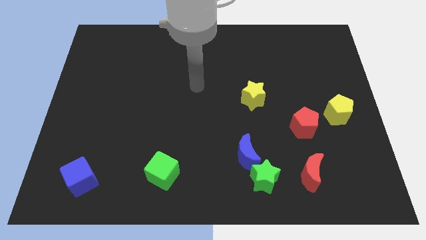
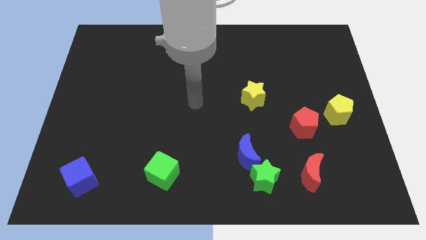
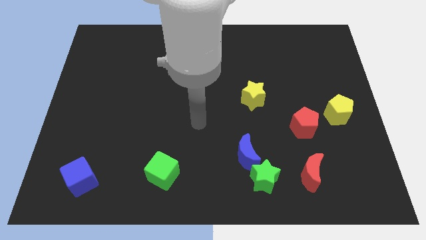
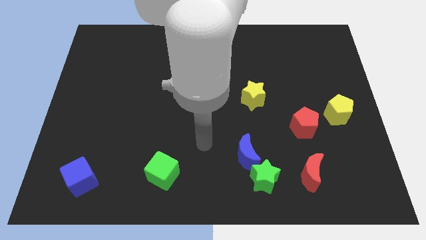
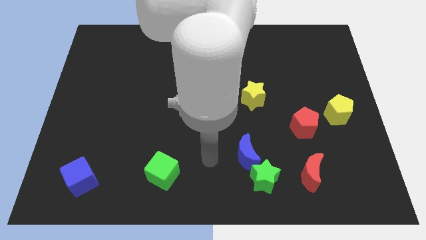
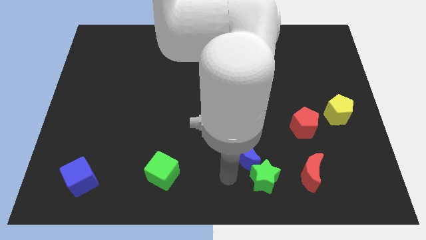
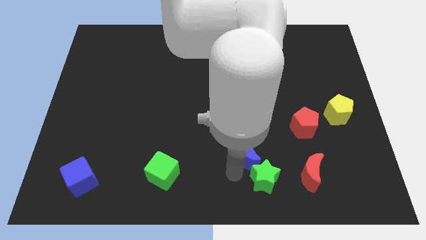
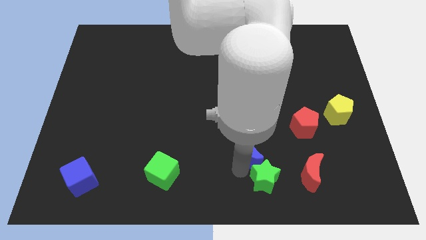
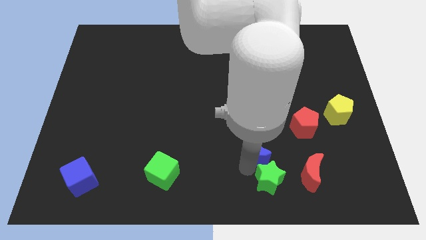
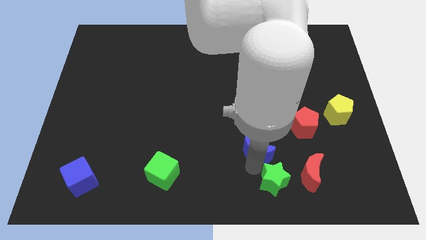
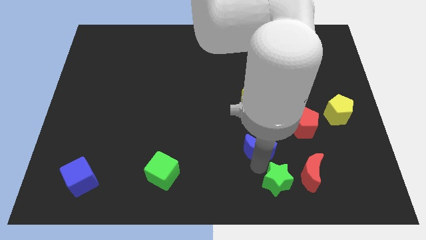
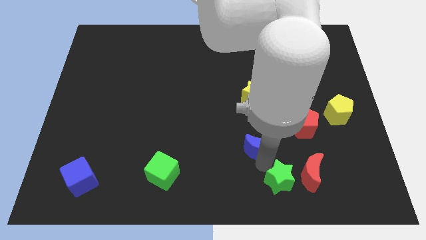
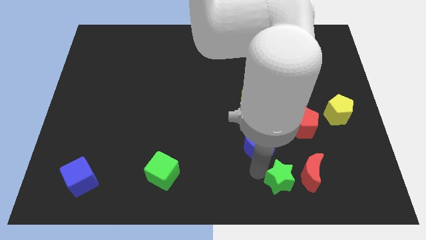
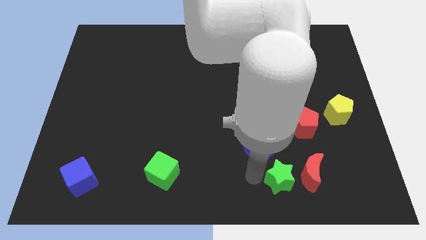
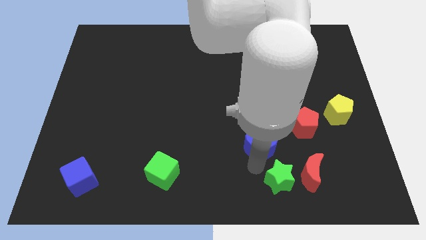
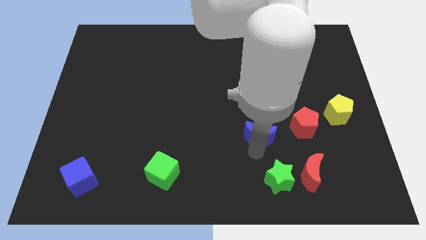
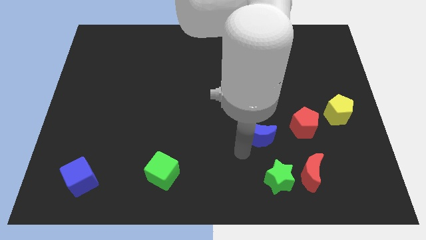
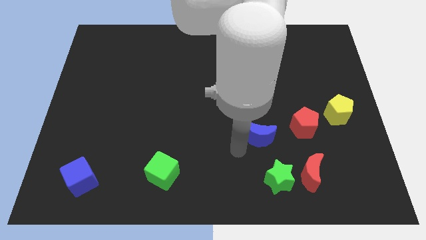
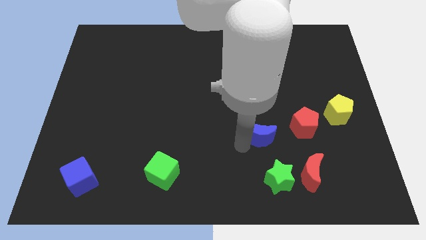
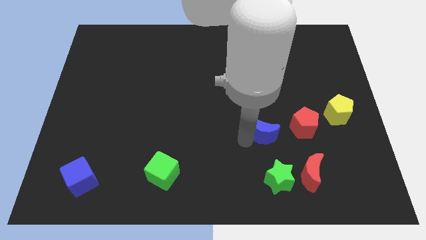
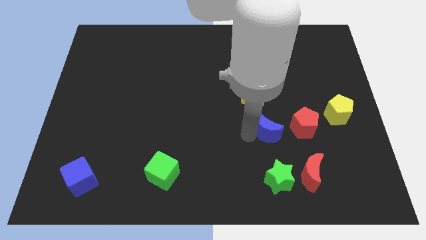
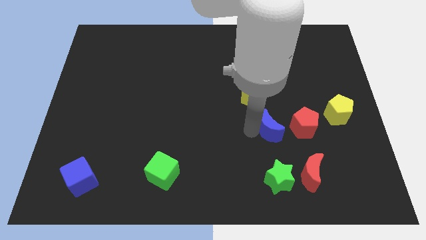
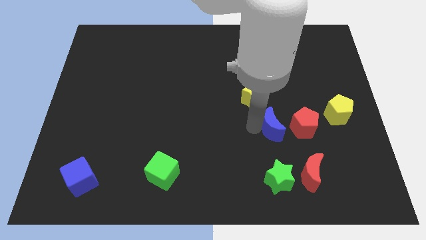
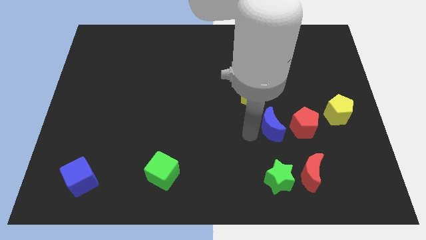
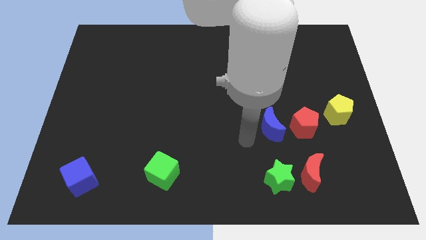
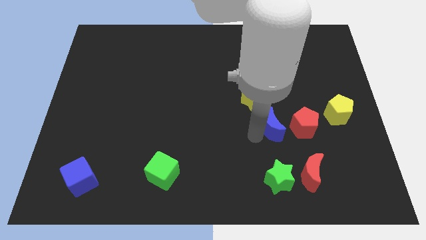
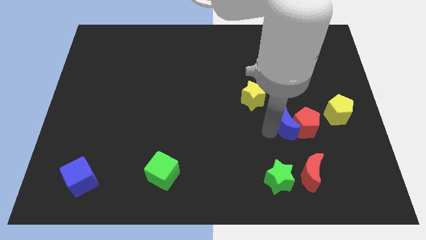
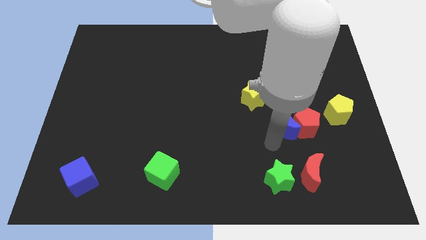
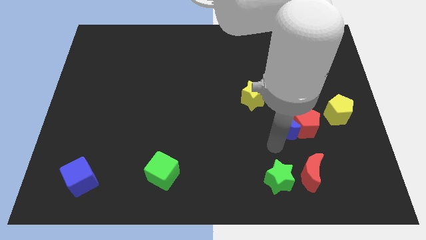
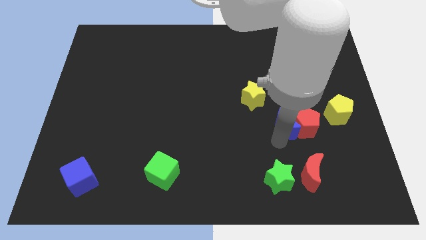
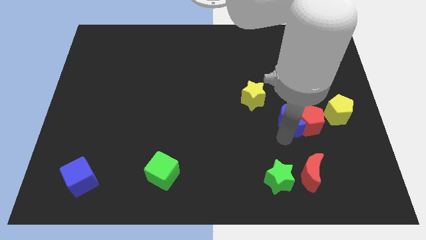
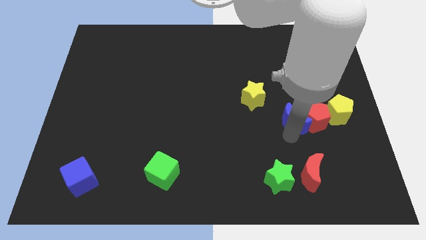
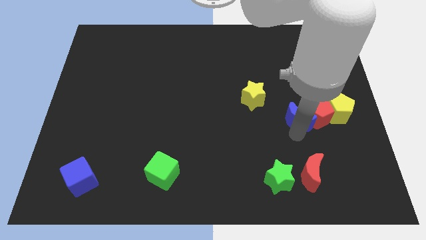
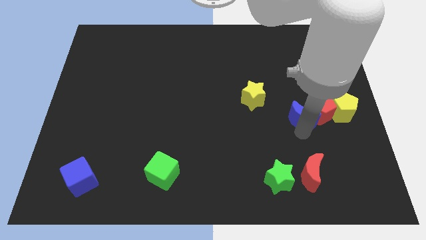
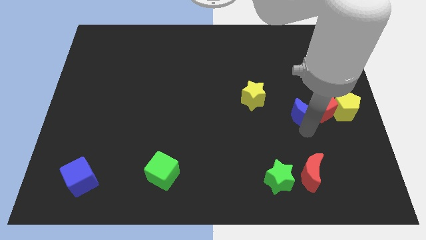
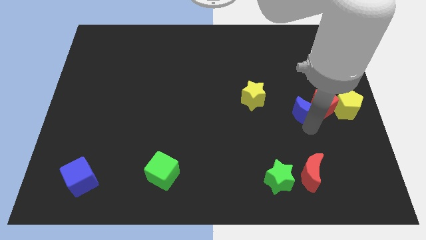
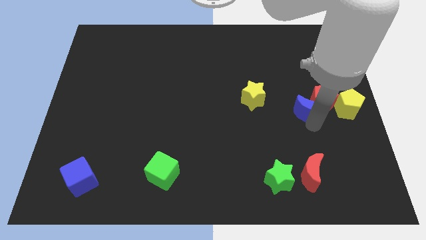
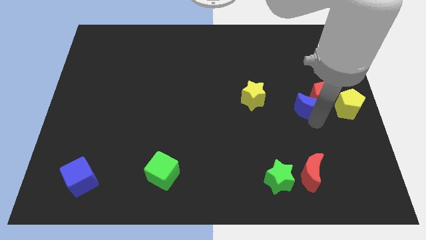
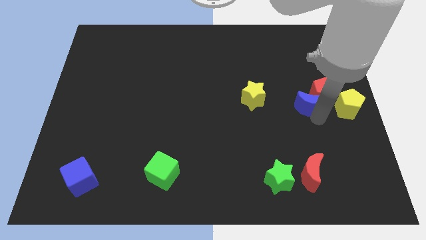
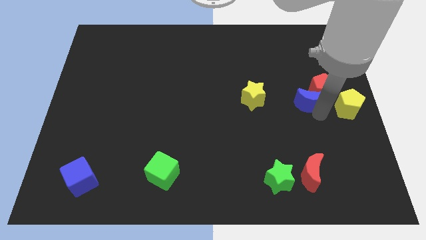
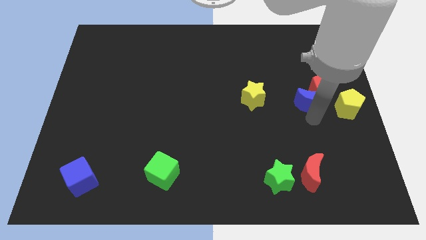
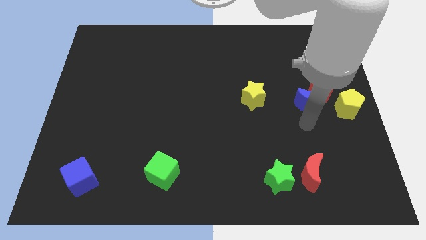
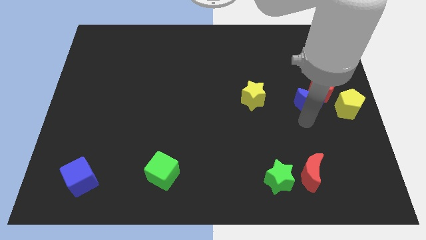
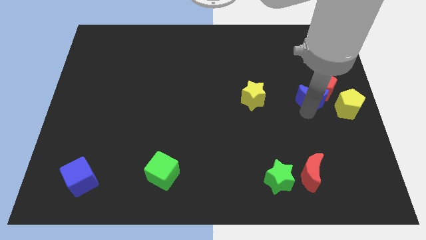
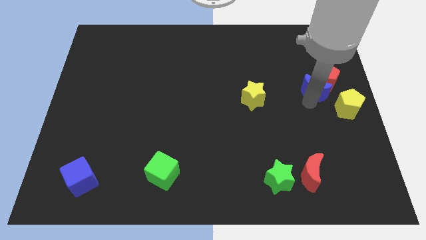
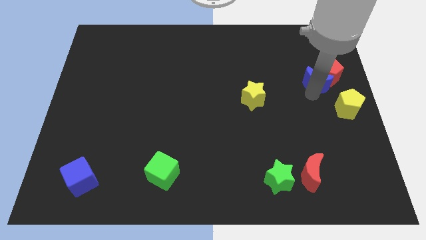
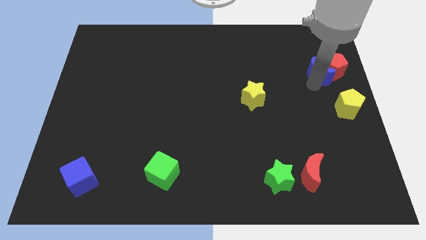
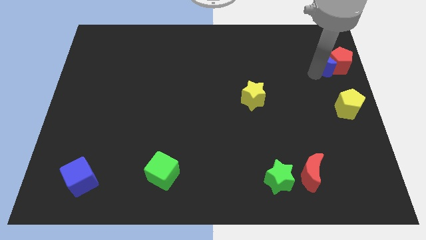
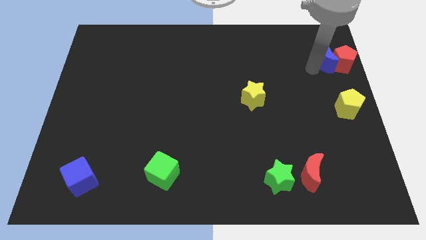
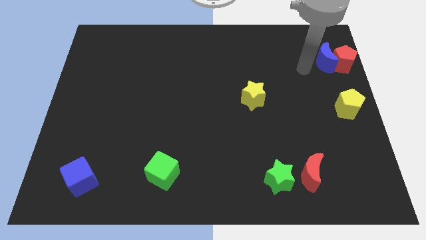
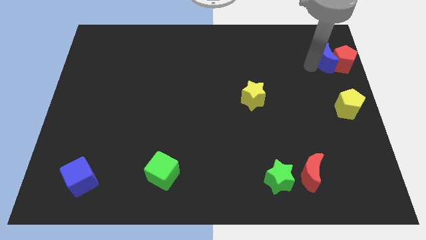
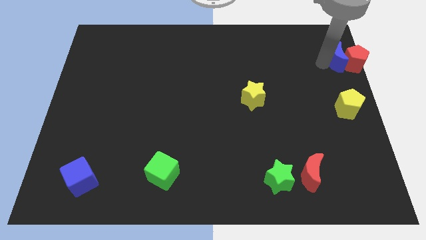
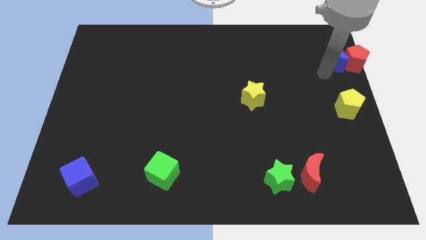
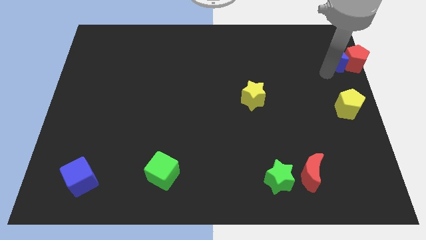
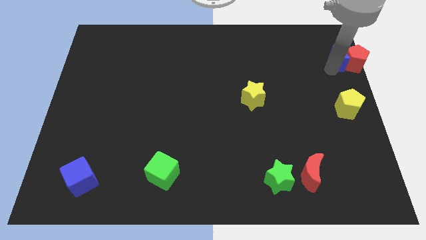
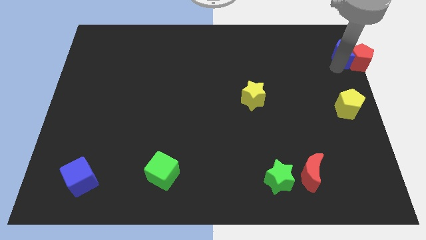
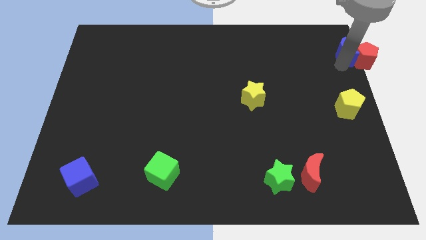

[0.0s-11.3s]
slide the blue moon to the upper right corner
